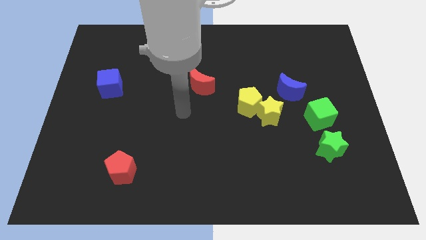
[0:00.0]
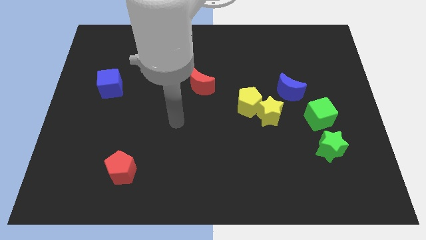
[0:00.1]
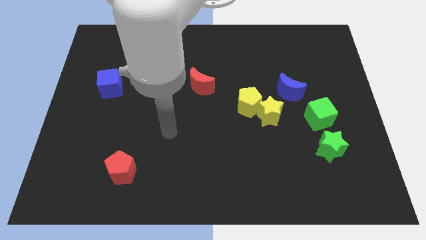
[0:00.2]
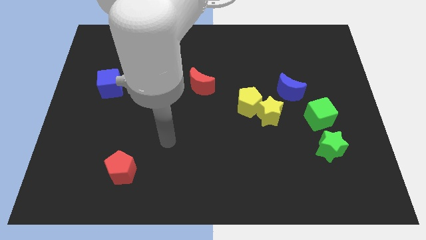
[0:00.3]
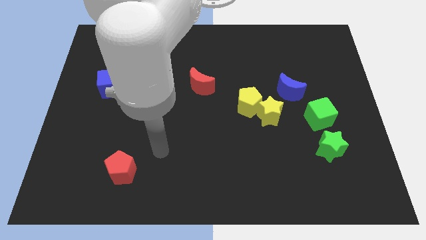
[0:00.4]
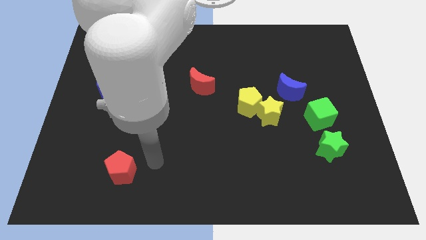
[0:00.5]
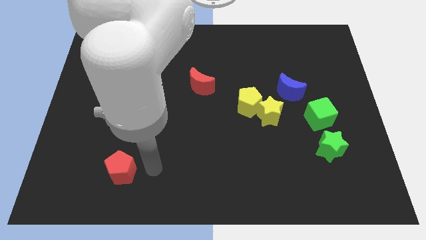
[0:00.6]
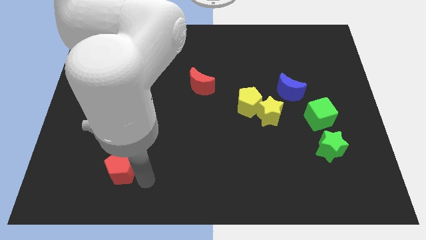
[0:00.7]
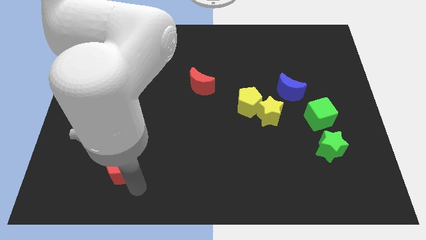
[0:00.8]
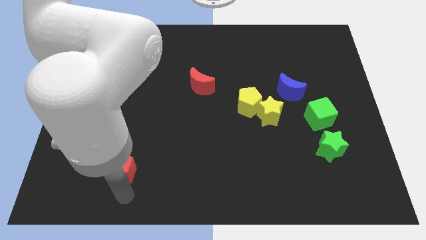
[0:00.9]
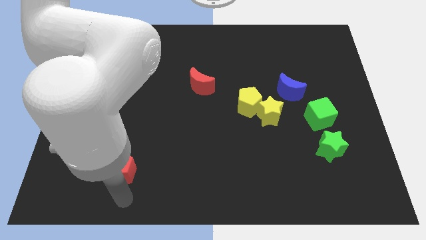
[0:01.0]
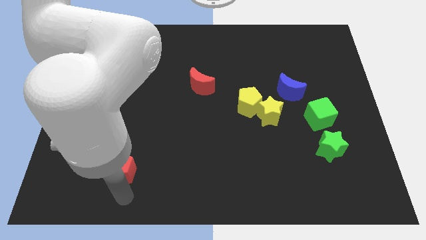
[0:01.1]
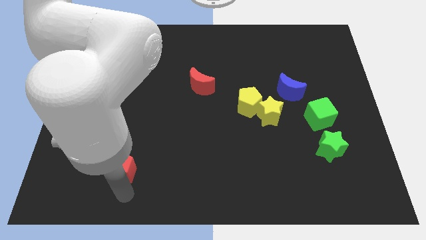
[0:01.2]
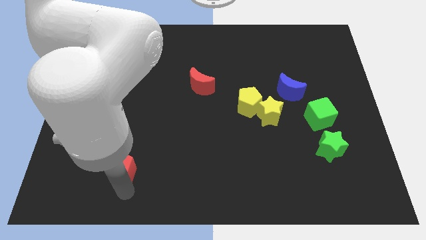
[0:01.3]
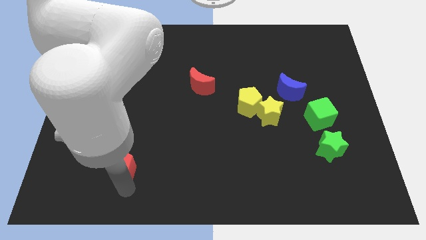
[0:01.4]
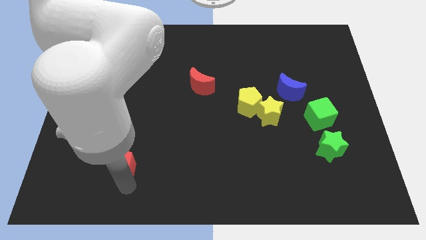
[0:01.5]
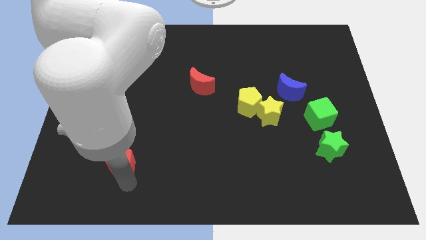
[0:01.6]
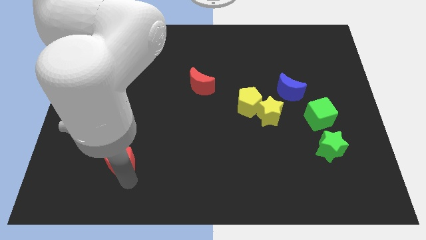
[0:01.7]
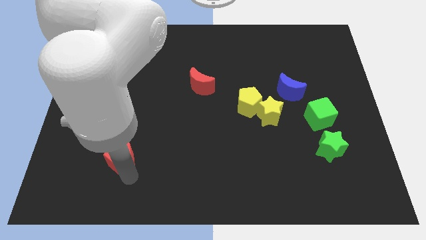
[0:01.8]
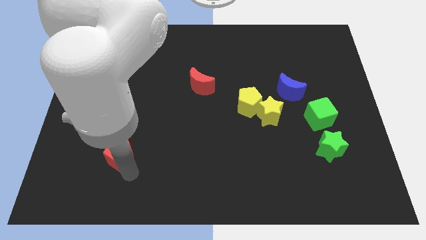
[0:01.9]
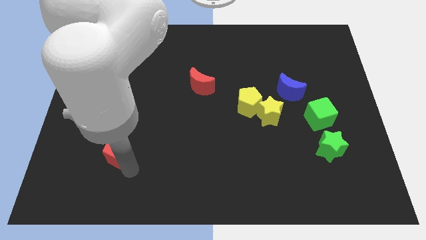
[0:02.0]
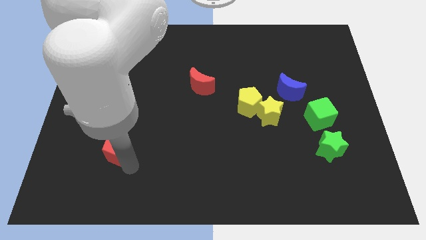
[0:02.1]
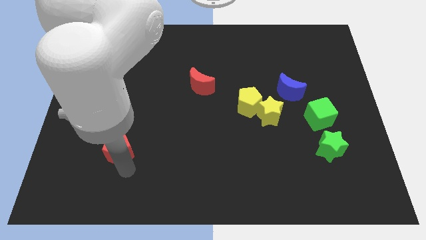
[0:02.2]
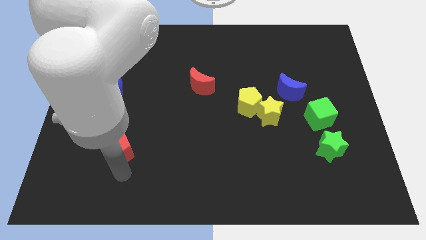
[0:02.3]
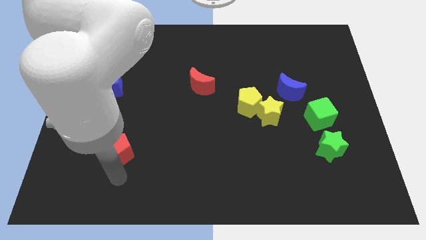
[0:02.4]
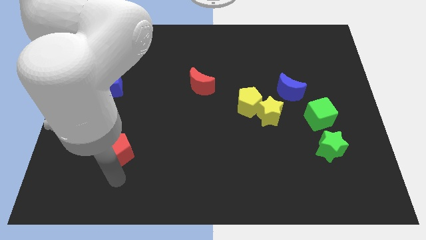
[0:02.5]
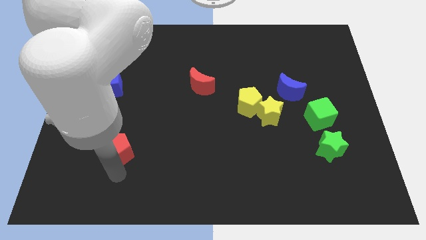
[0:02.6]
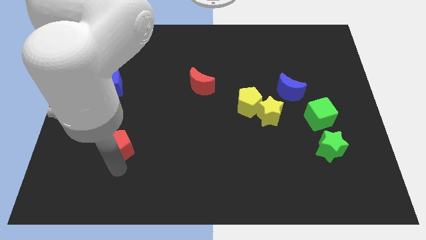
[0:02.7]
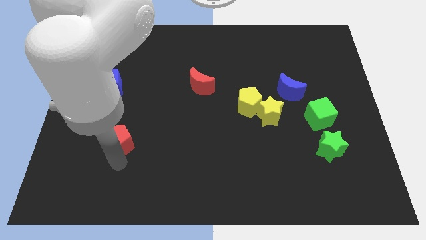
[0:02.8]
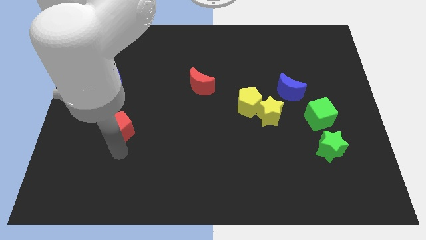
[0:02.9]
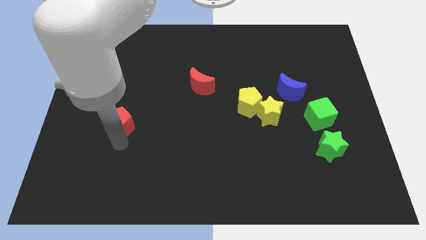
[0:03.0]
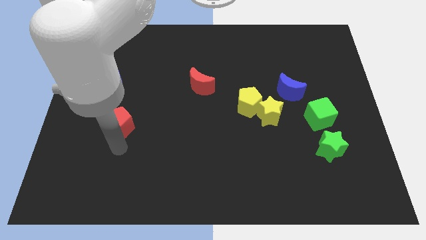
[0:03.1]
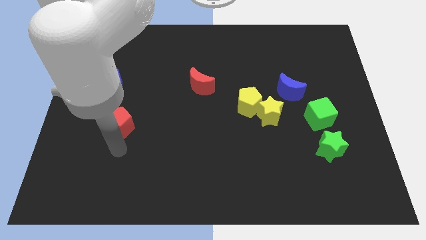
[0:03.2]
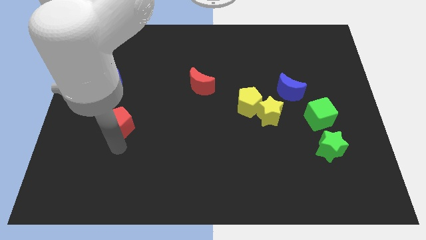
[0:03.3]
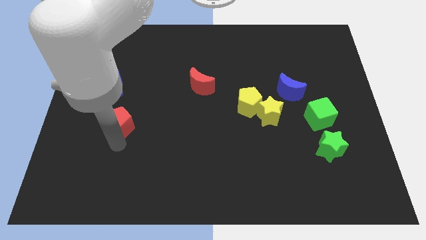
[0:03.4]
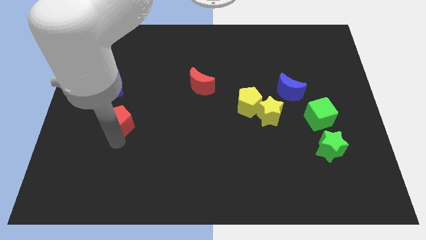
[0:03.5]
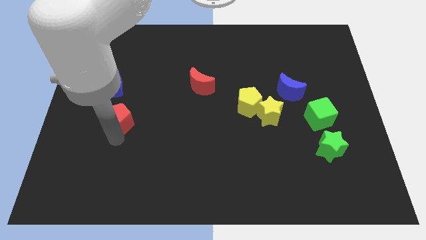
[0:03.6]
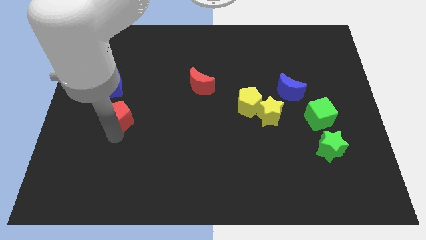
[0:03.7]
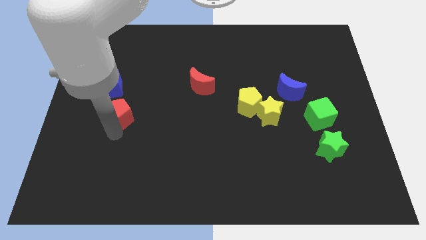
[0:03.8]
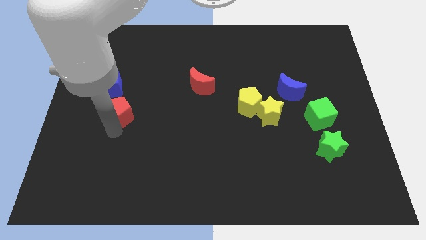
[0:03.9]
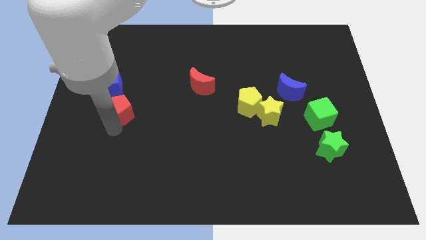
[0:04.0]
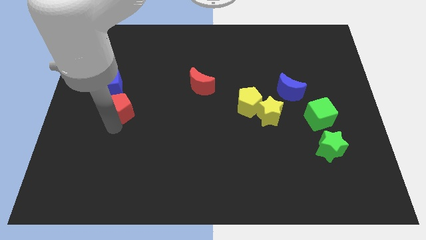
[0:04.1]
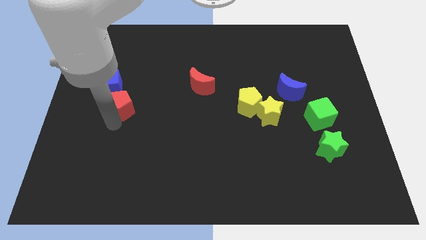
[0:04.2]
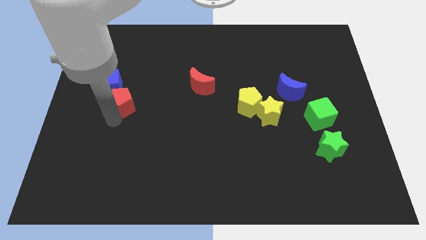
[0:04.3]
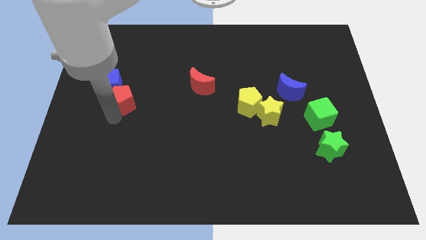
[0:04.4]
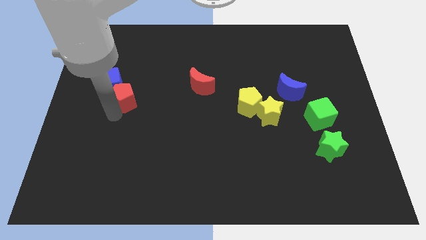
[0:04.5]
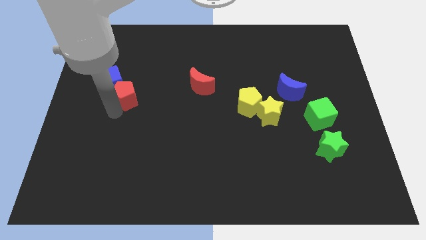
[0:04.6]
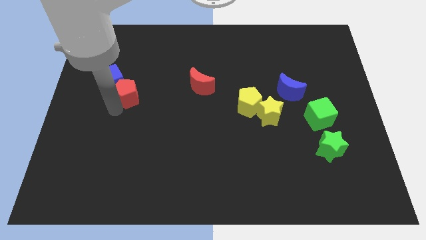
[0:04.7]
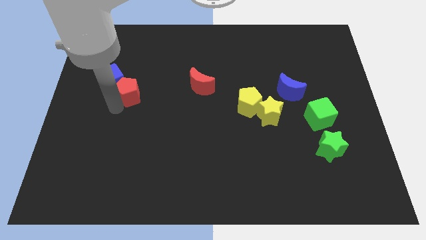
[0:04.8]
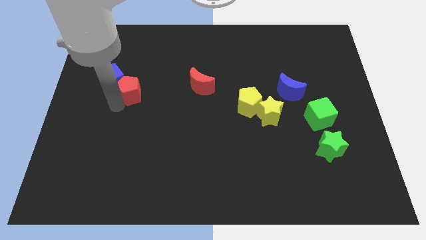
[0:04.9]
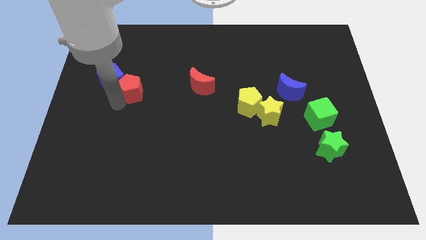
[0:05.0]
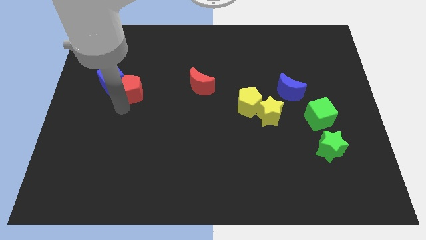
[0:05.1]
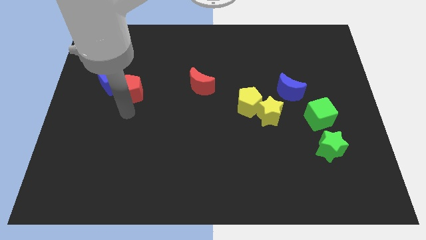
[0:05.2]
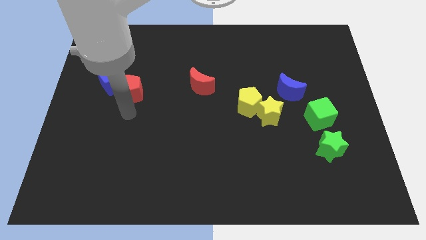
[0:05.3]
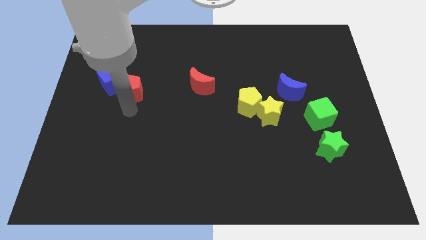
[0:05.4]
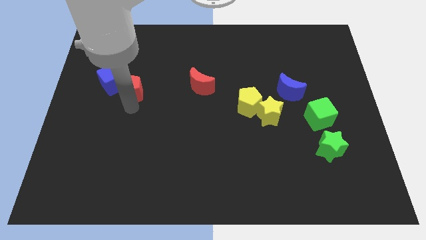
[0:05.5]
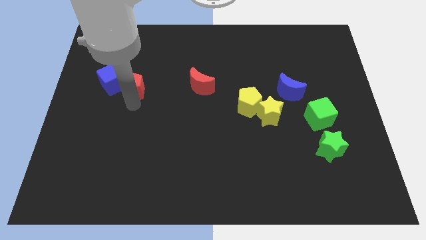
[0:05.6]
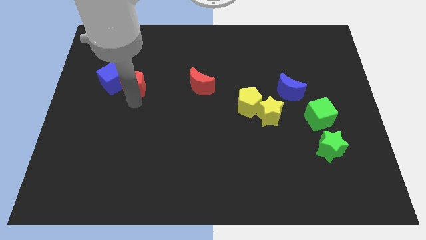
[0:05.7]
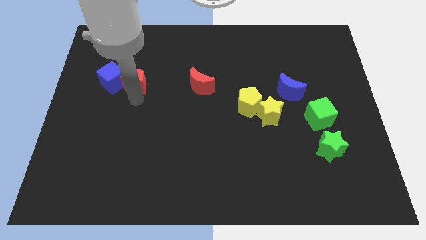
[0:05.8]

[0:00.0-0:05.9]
put the red pentagon to the top right side of the blue cube

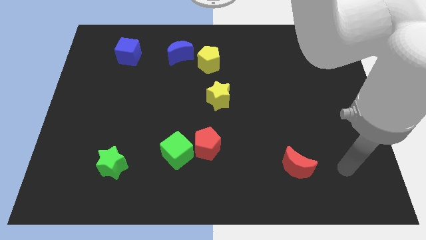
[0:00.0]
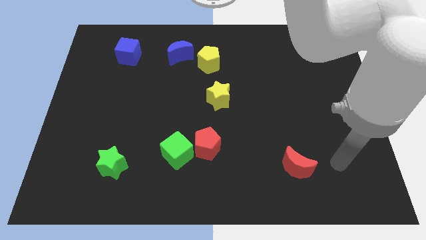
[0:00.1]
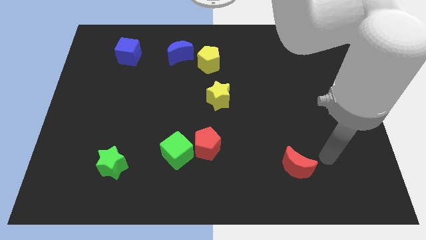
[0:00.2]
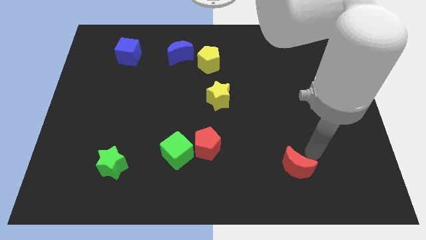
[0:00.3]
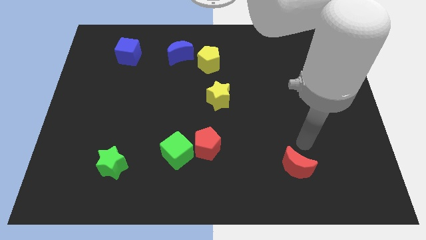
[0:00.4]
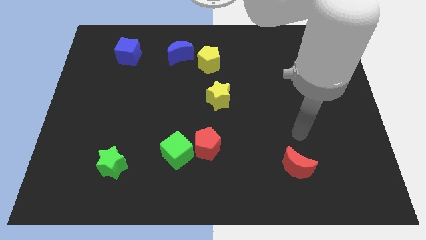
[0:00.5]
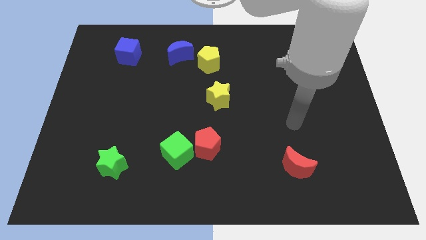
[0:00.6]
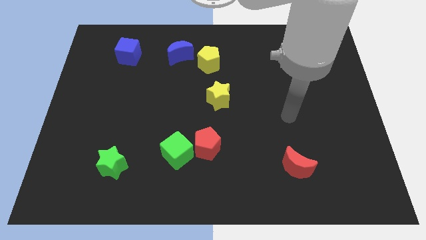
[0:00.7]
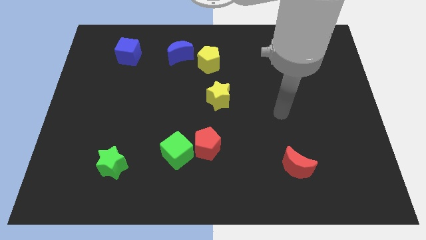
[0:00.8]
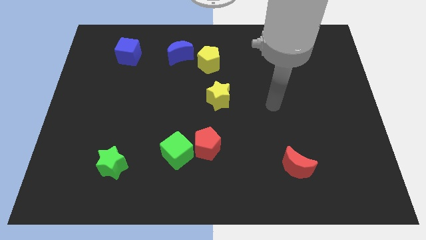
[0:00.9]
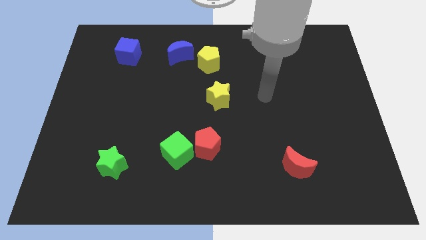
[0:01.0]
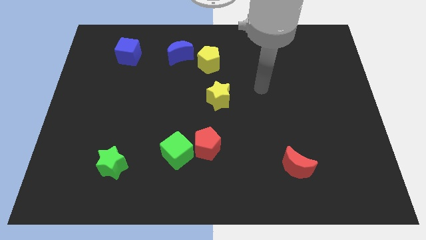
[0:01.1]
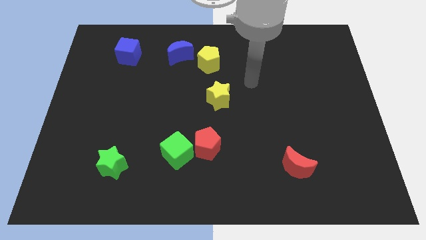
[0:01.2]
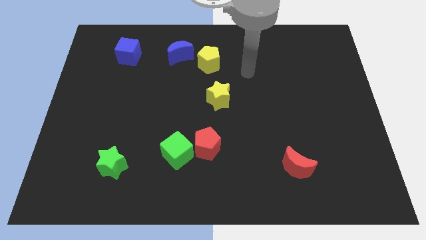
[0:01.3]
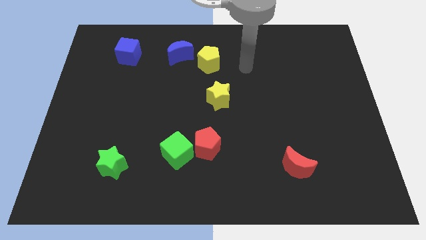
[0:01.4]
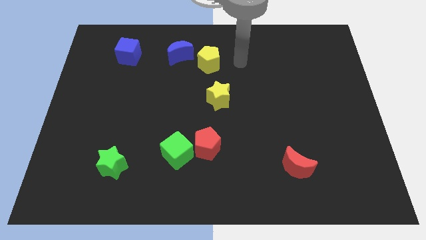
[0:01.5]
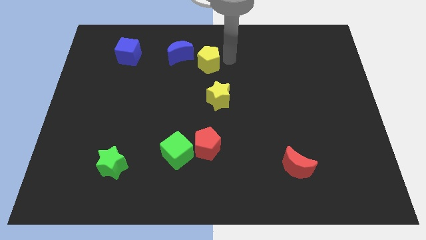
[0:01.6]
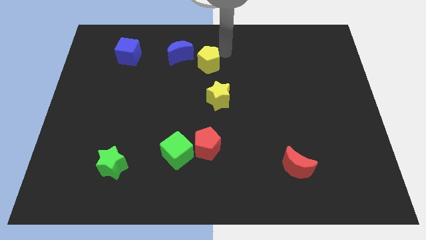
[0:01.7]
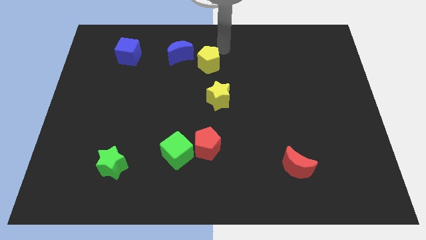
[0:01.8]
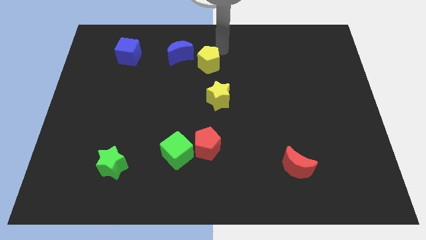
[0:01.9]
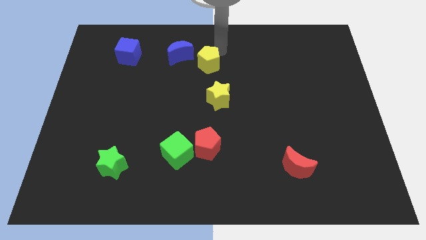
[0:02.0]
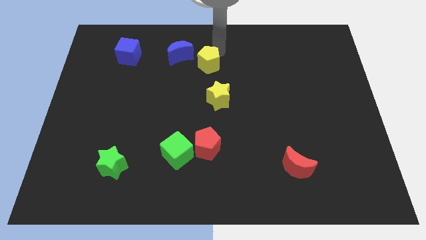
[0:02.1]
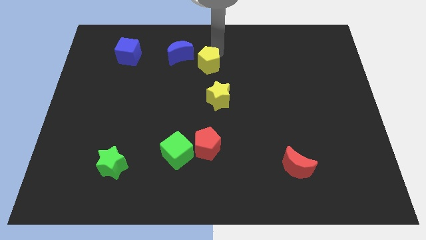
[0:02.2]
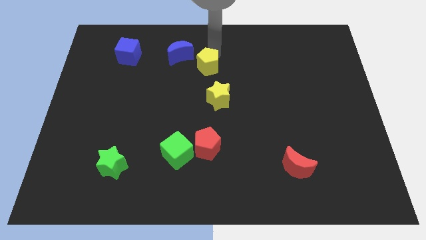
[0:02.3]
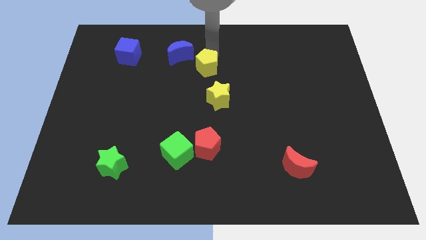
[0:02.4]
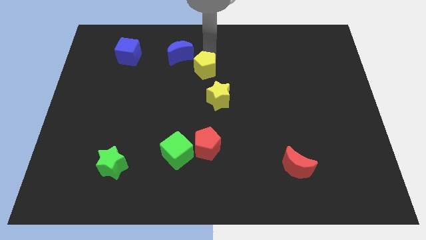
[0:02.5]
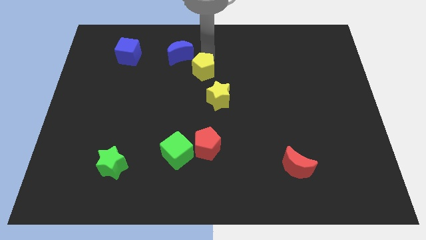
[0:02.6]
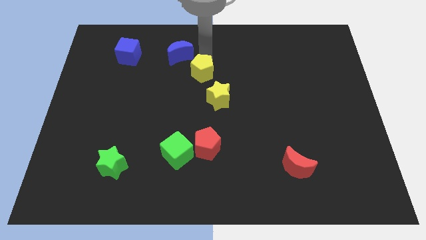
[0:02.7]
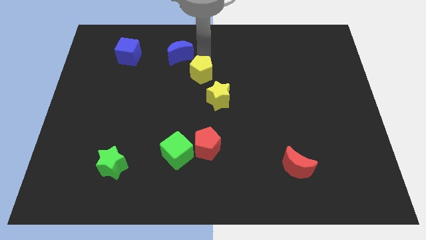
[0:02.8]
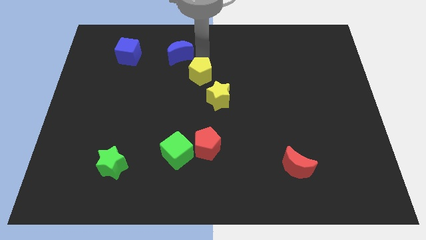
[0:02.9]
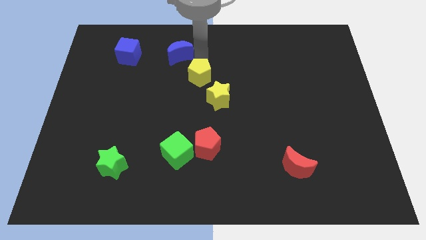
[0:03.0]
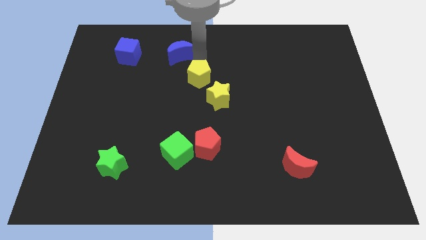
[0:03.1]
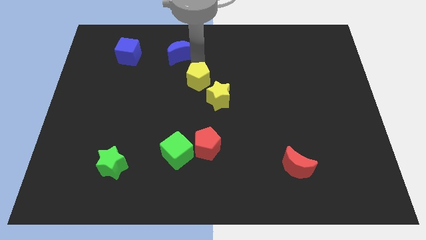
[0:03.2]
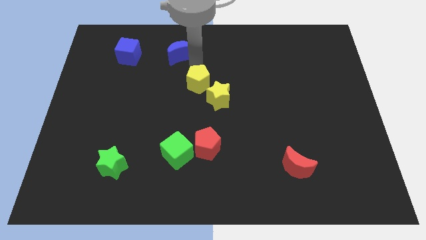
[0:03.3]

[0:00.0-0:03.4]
move the yellow pentagon just left of the yellow star
